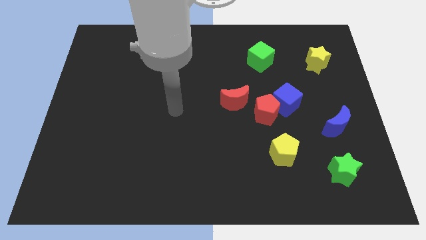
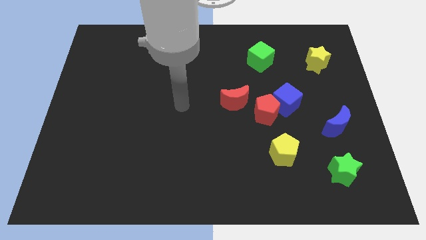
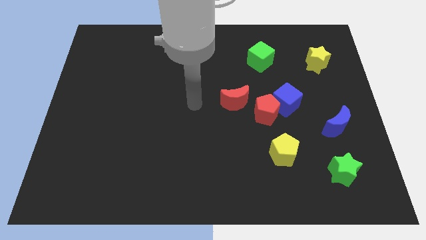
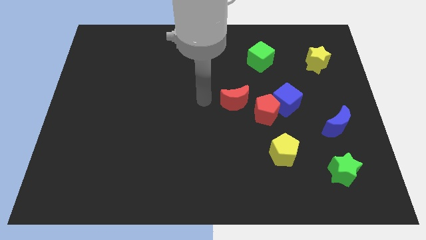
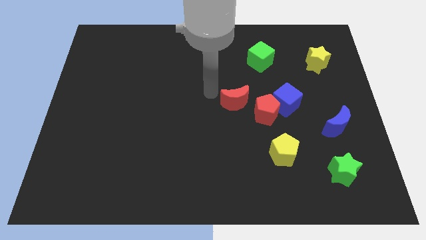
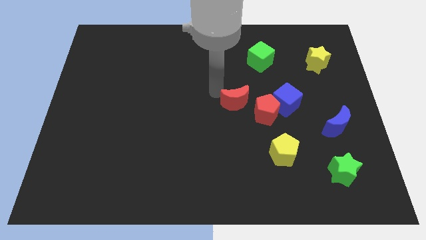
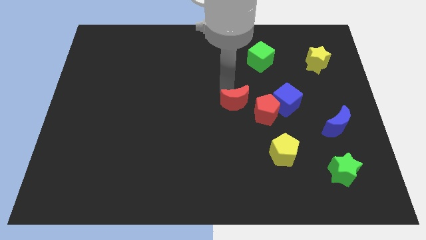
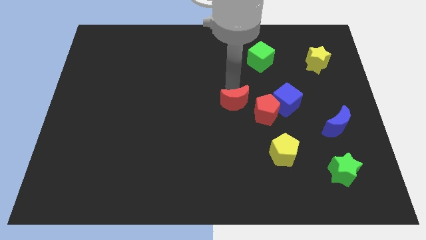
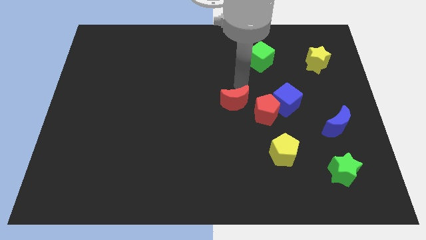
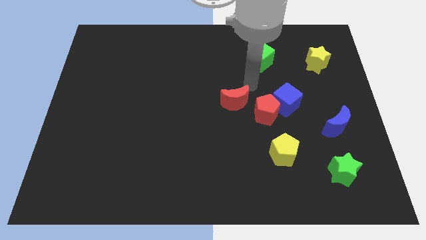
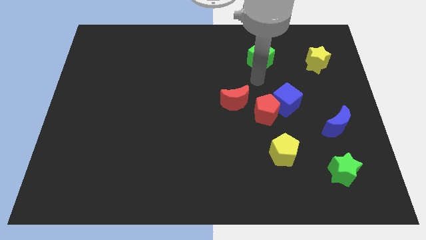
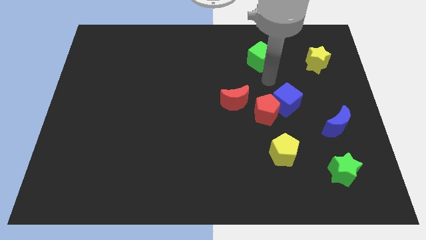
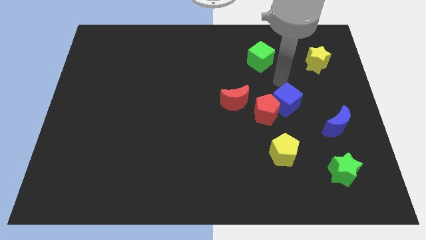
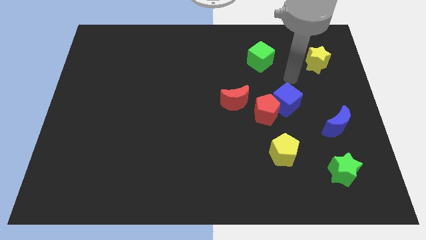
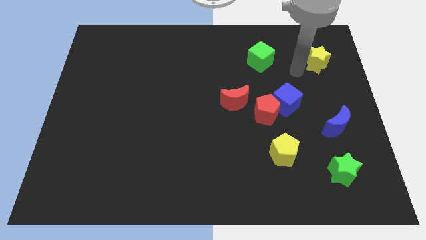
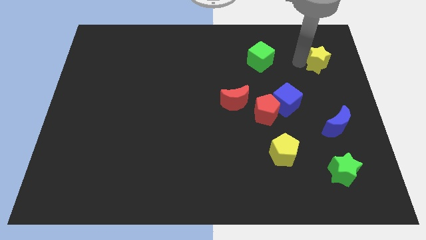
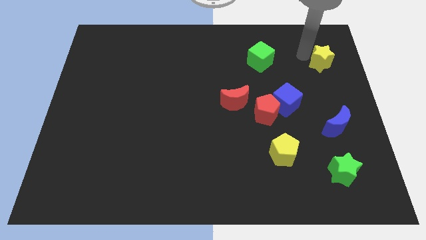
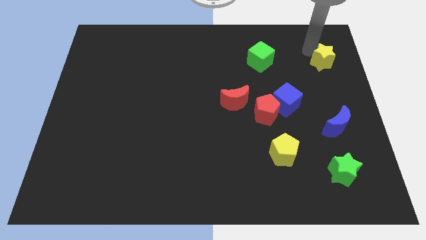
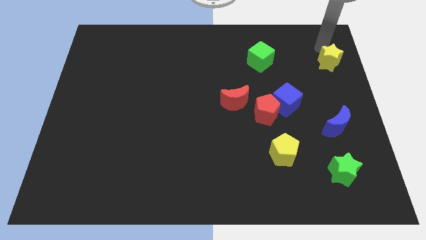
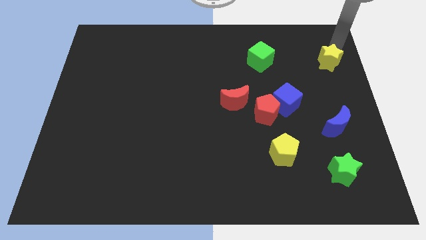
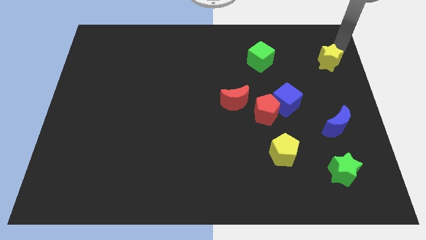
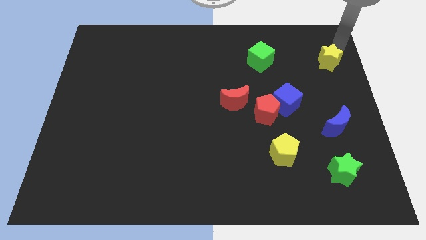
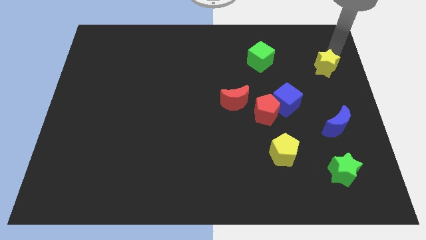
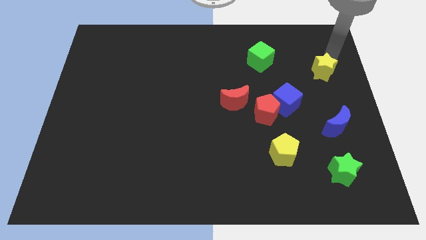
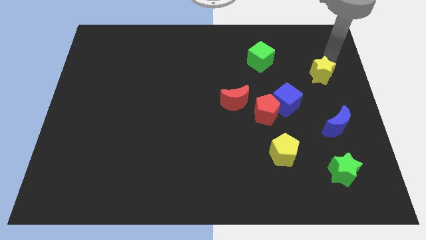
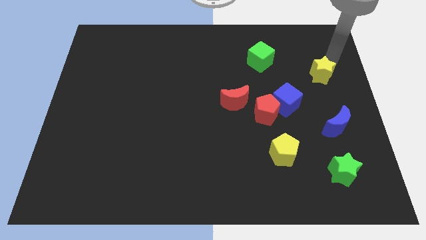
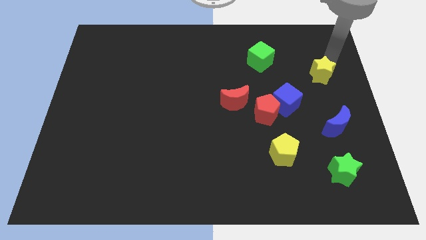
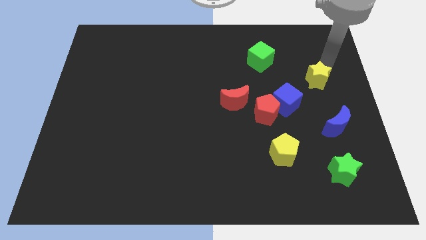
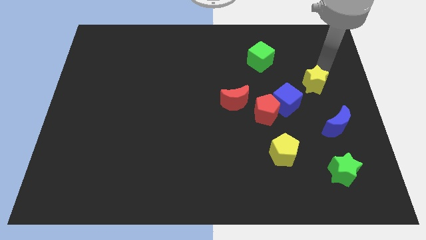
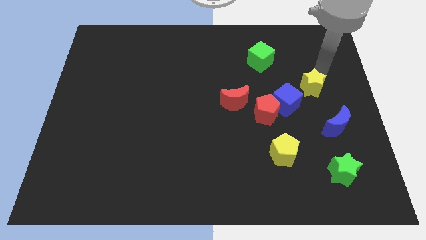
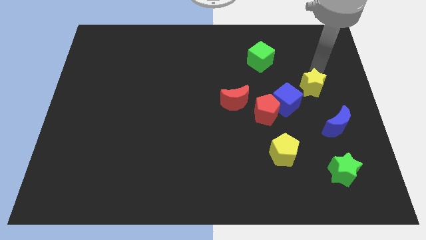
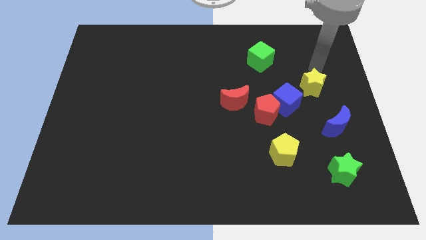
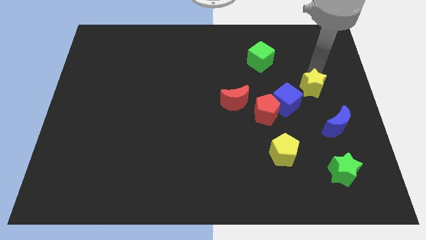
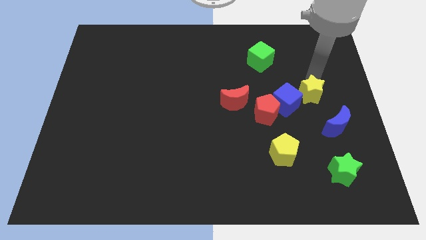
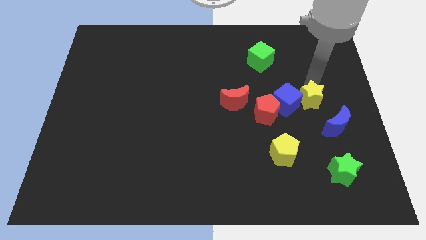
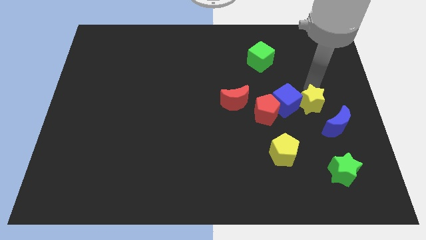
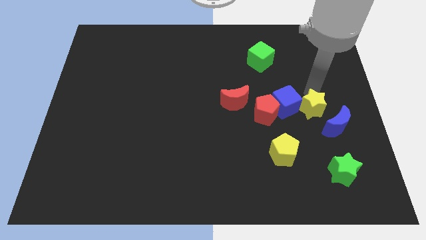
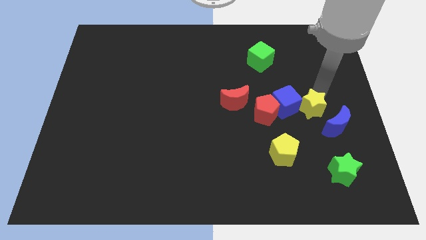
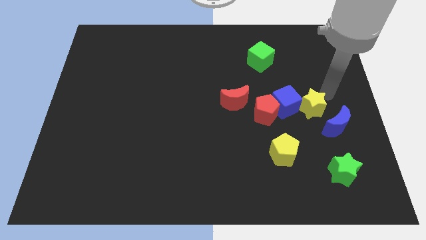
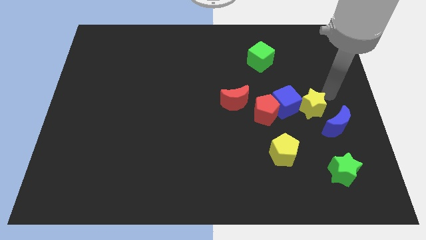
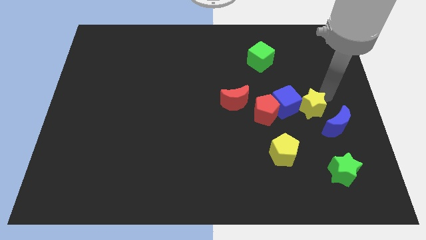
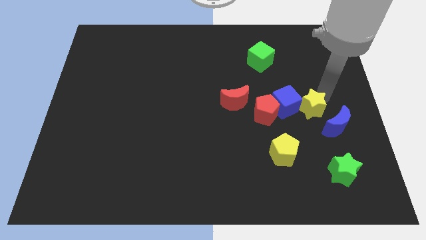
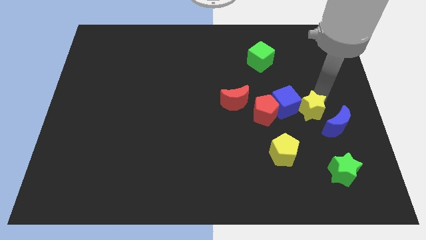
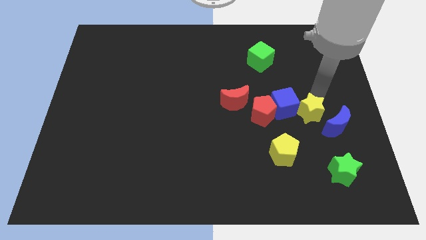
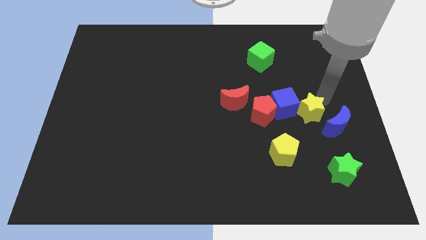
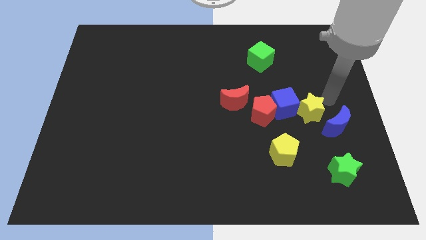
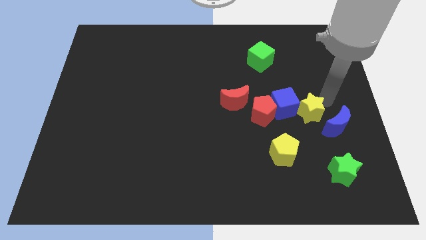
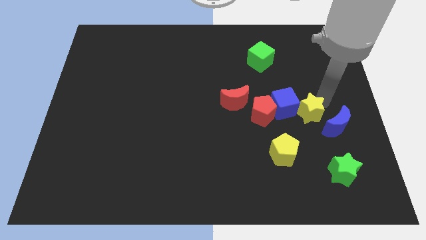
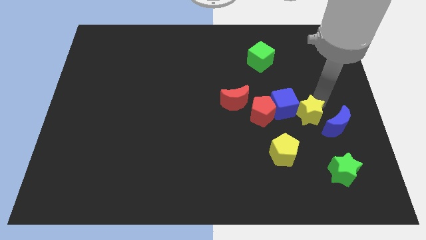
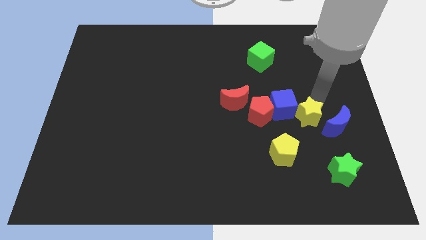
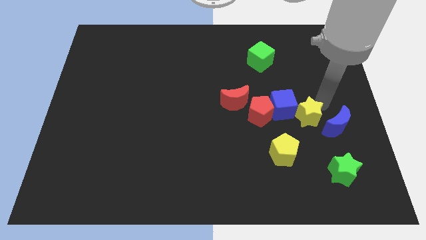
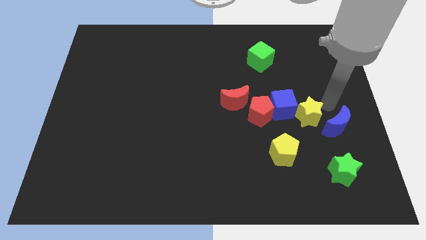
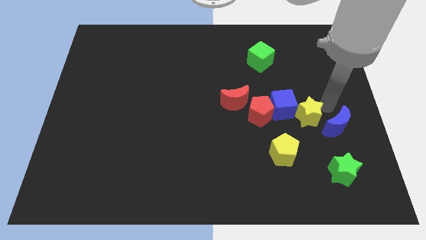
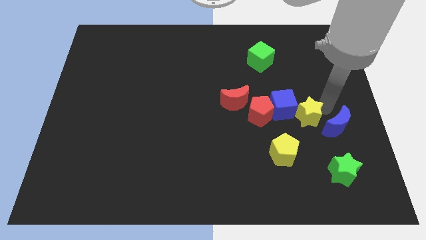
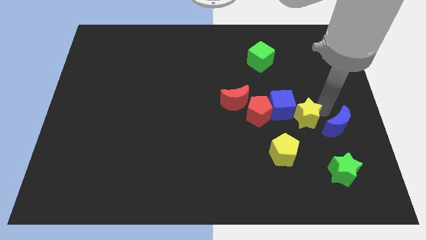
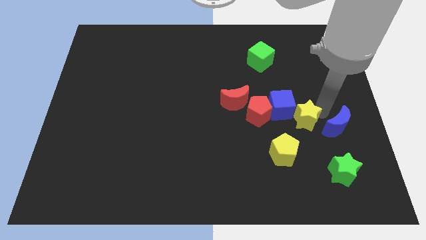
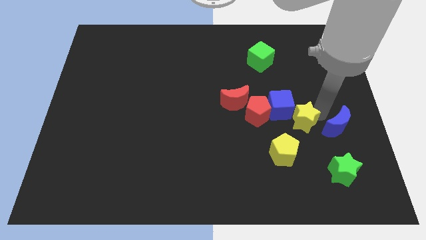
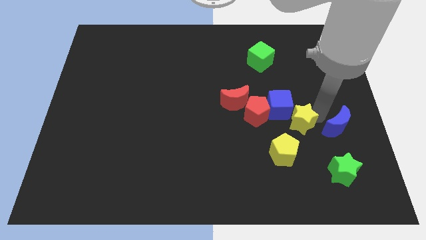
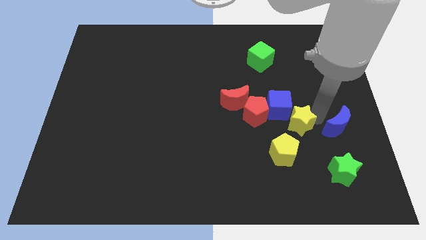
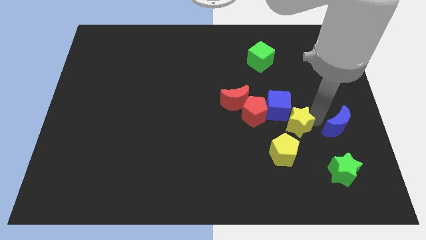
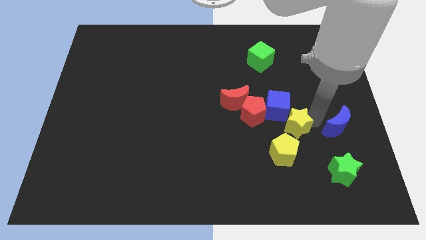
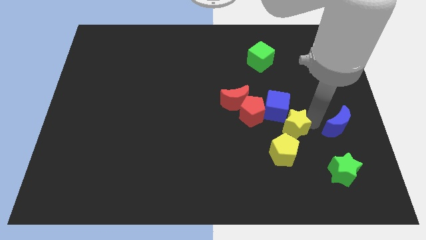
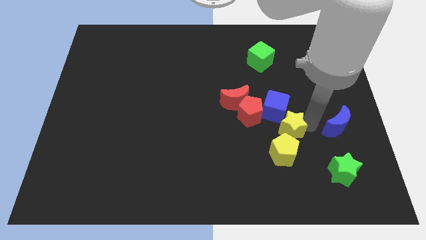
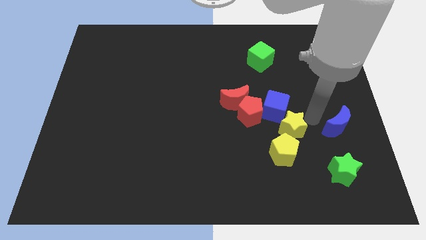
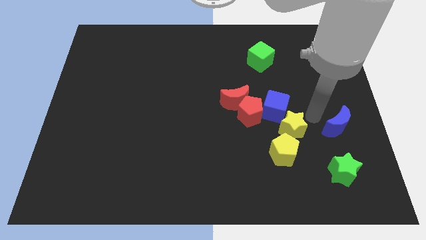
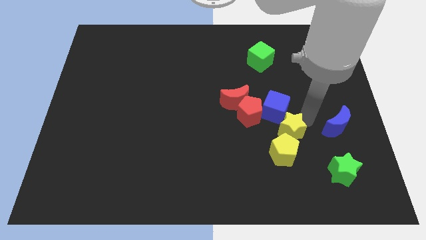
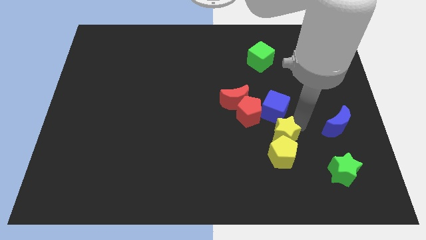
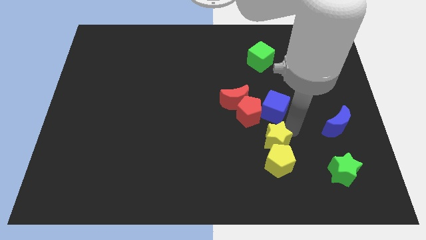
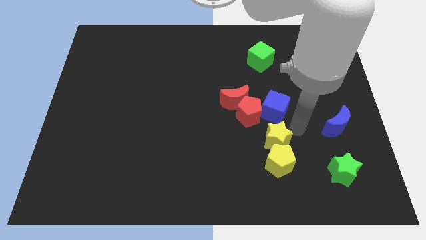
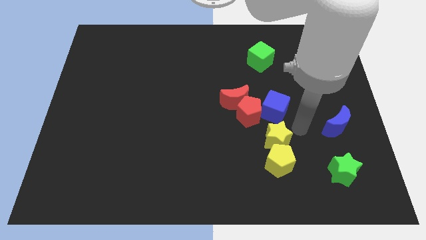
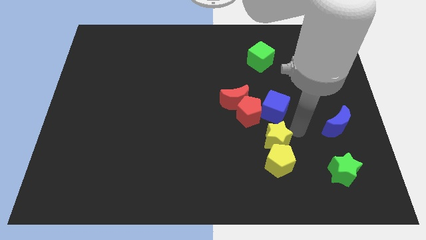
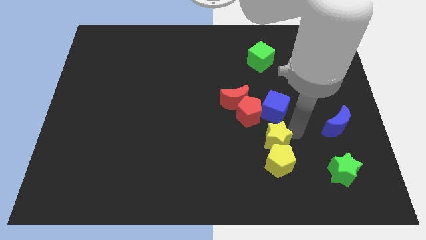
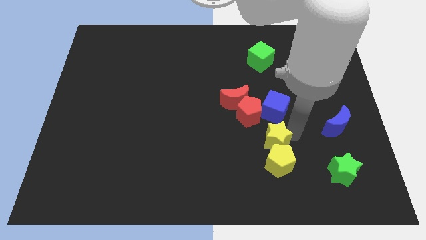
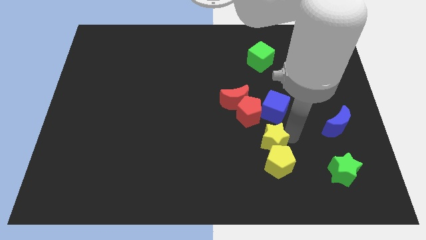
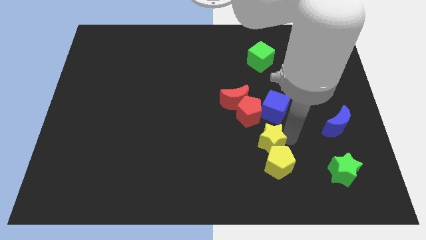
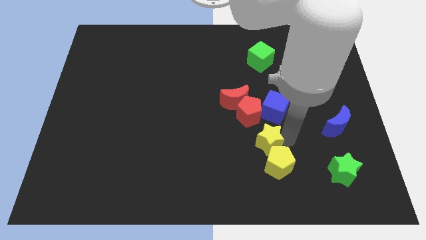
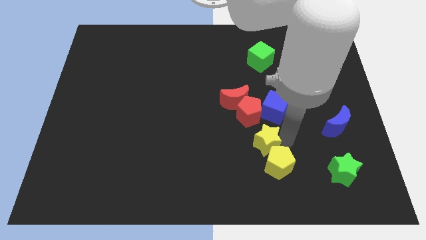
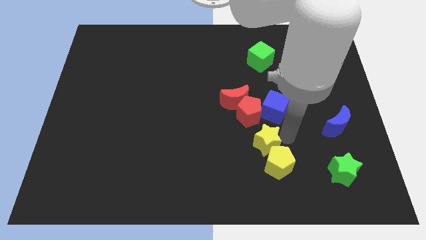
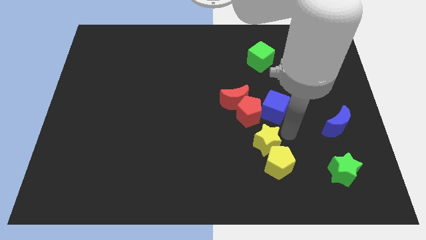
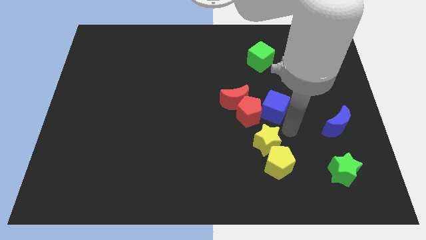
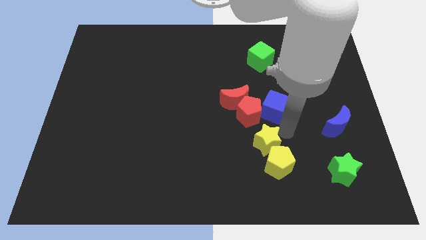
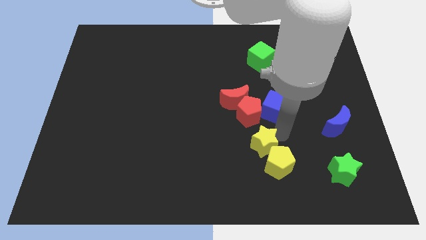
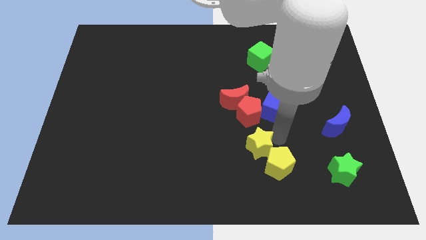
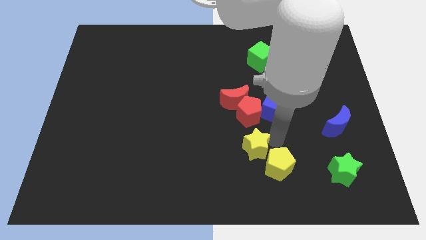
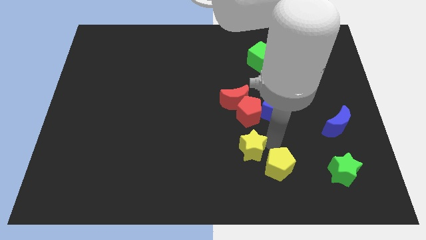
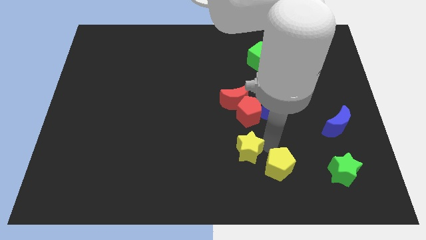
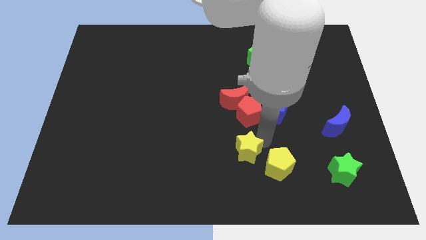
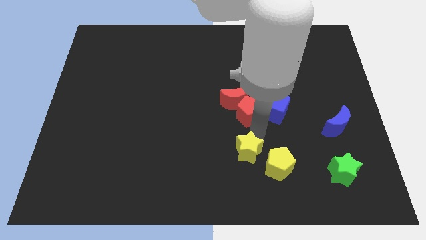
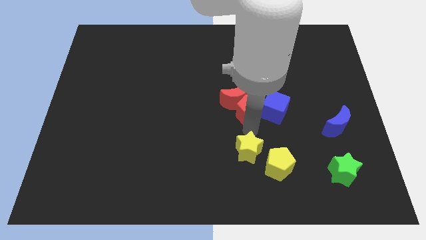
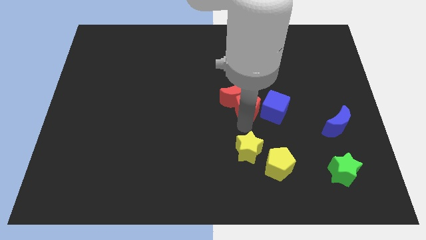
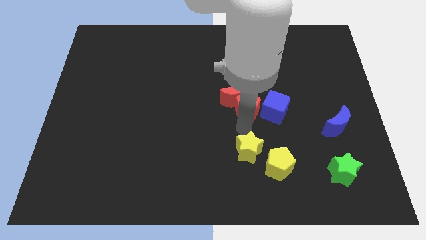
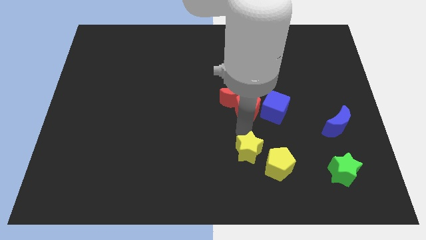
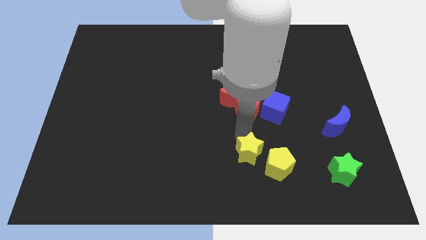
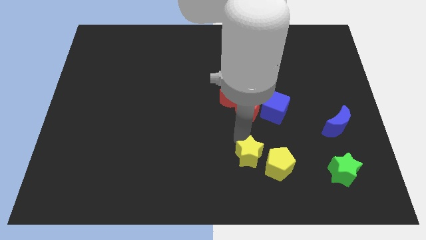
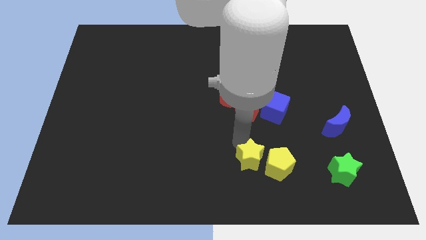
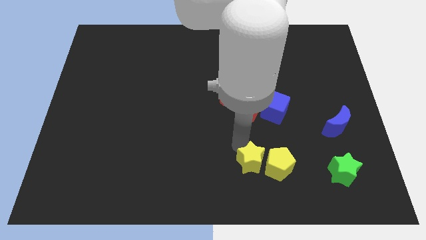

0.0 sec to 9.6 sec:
slide the yellow star to the bottom left side of the yellow pentagon
